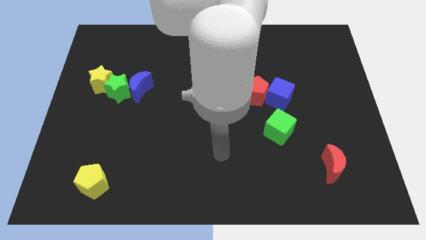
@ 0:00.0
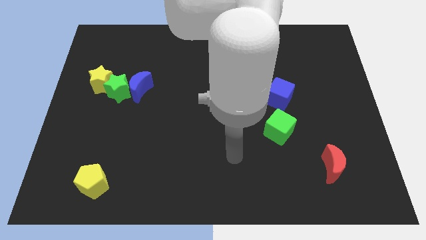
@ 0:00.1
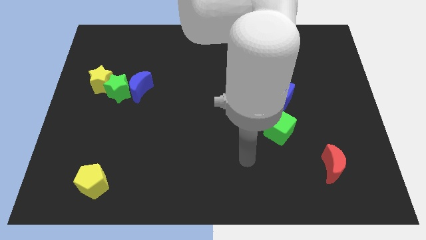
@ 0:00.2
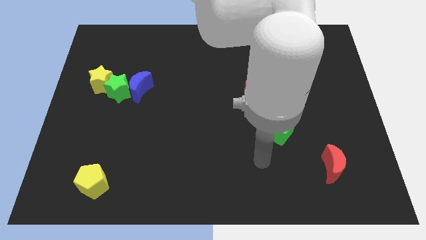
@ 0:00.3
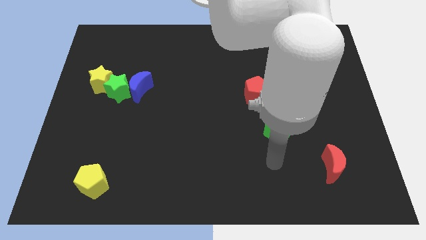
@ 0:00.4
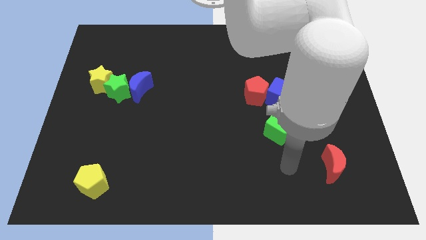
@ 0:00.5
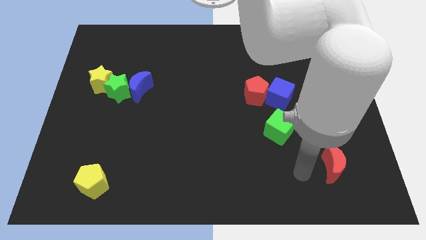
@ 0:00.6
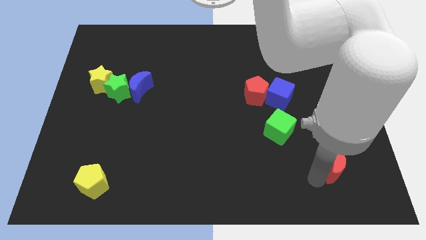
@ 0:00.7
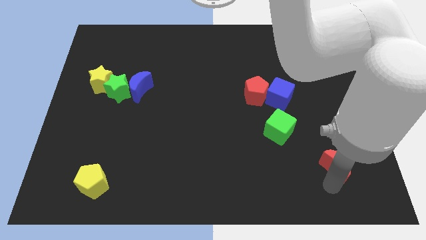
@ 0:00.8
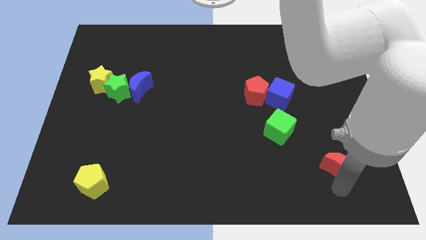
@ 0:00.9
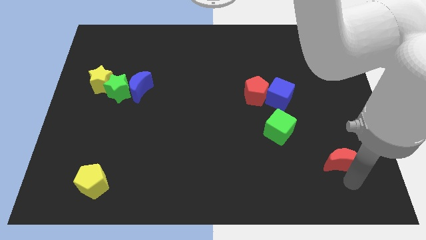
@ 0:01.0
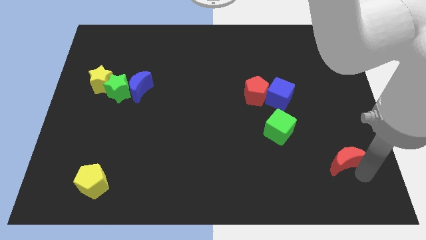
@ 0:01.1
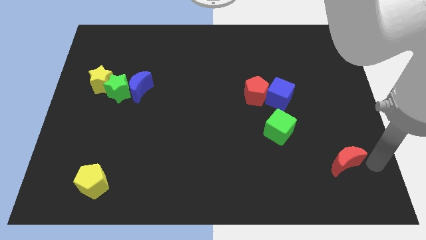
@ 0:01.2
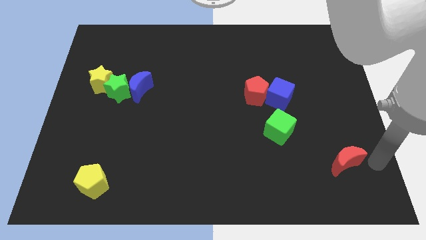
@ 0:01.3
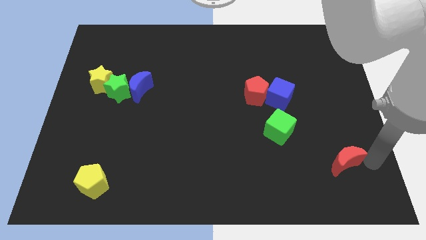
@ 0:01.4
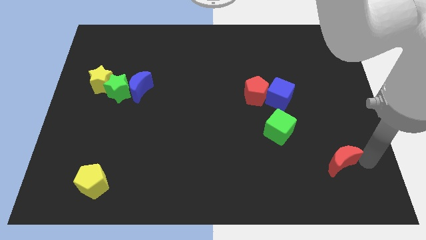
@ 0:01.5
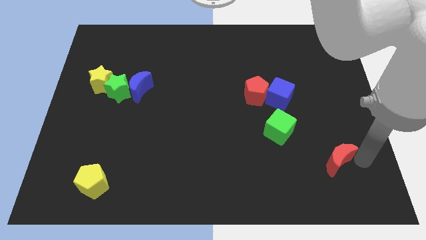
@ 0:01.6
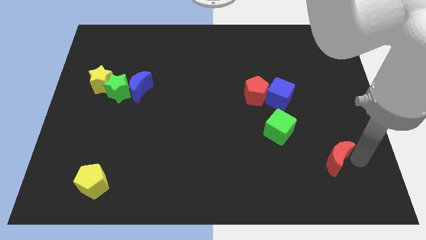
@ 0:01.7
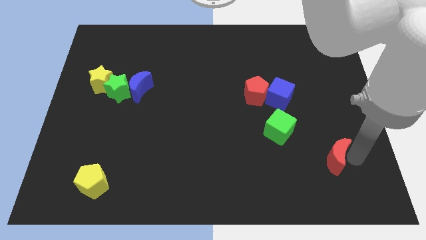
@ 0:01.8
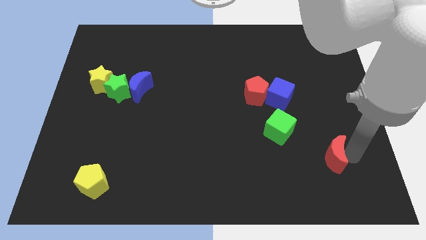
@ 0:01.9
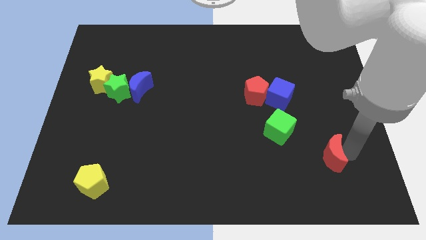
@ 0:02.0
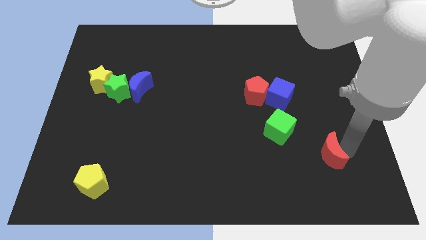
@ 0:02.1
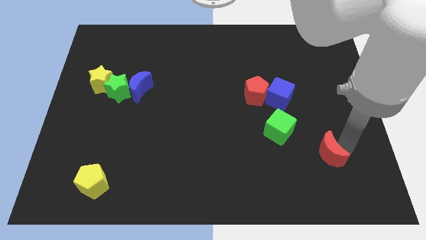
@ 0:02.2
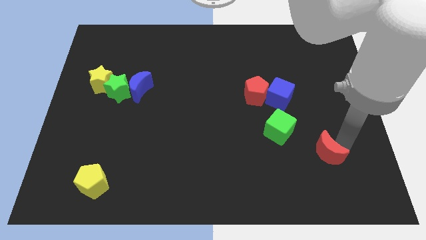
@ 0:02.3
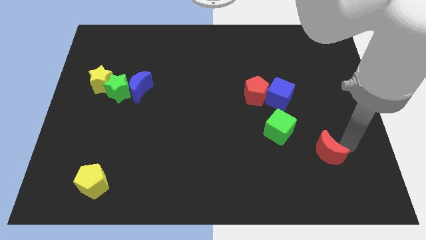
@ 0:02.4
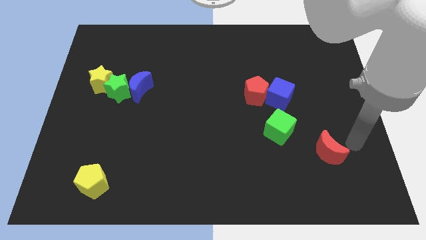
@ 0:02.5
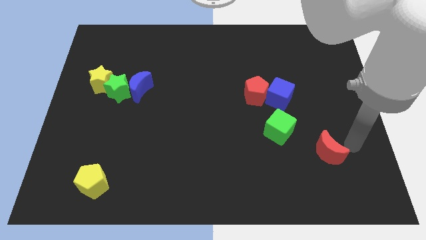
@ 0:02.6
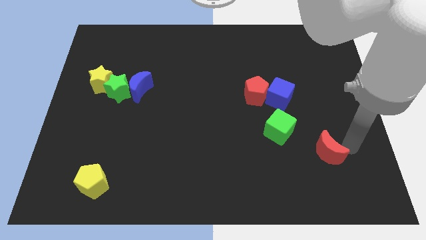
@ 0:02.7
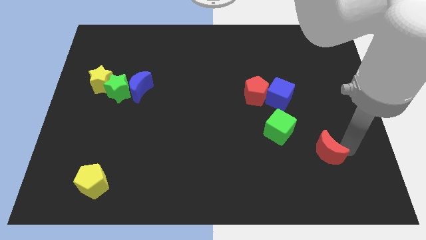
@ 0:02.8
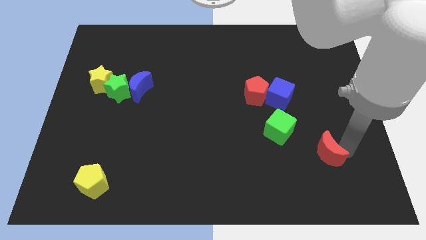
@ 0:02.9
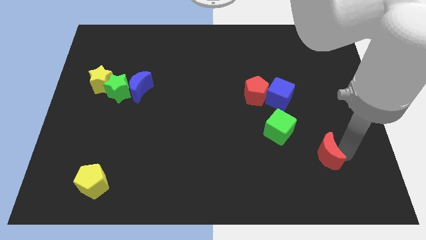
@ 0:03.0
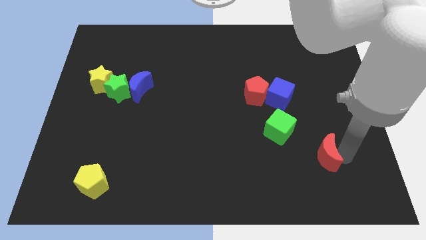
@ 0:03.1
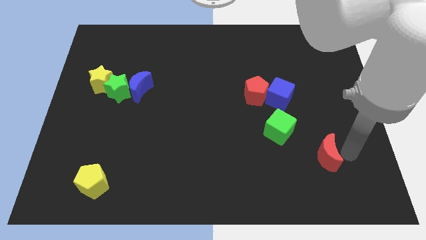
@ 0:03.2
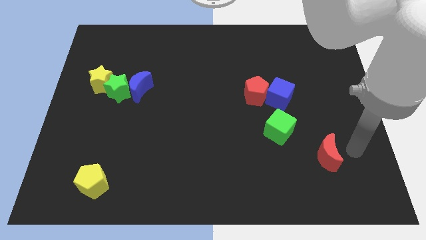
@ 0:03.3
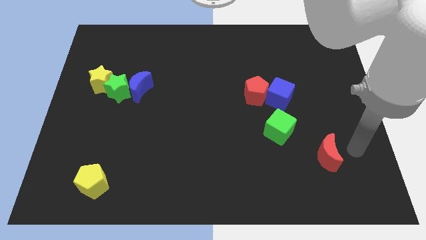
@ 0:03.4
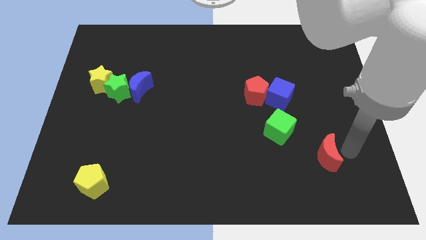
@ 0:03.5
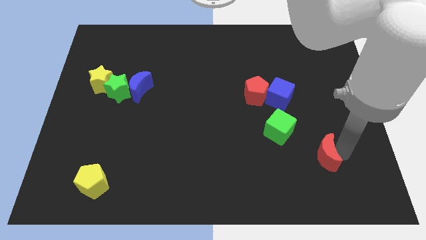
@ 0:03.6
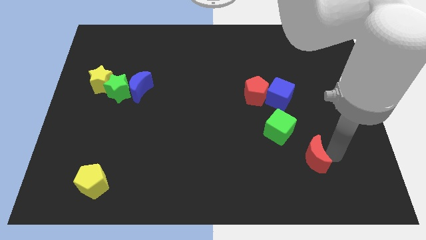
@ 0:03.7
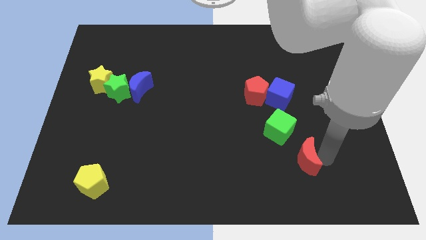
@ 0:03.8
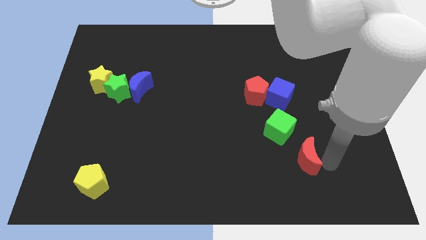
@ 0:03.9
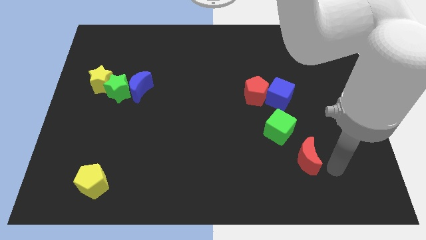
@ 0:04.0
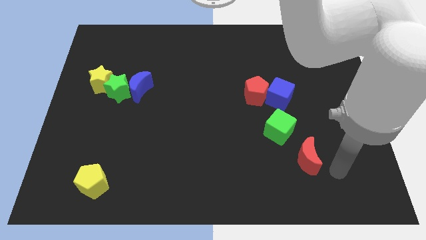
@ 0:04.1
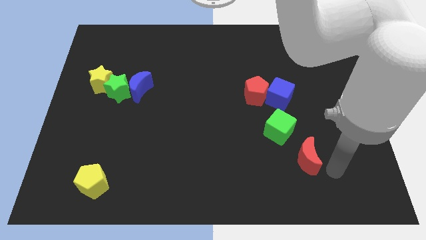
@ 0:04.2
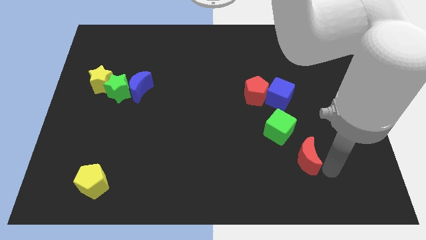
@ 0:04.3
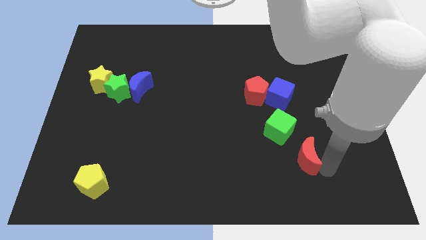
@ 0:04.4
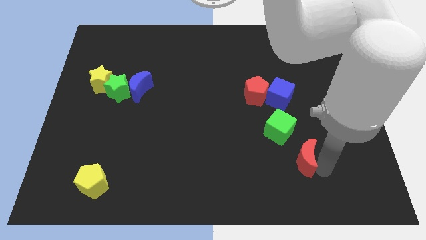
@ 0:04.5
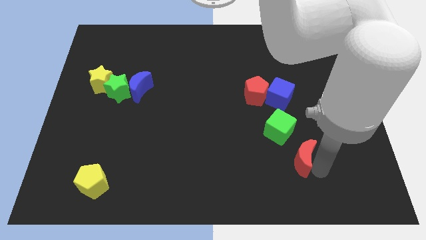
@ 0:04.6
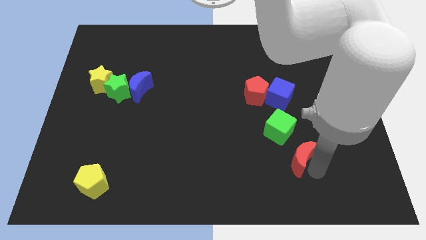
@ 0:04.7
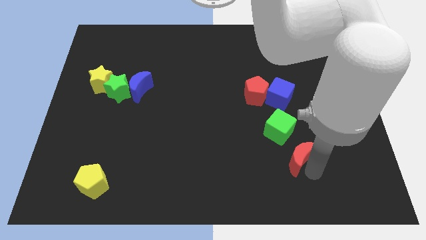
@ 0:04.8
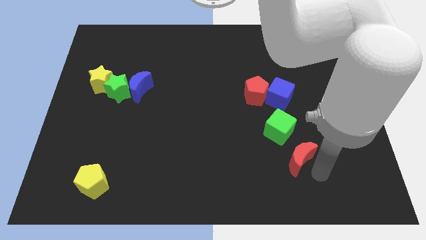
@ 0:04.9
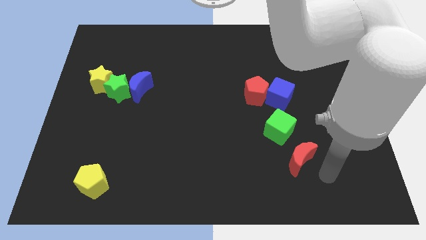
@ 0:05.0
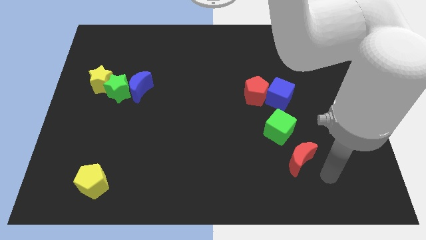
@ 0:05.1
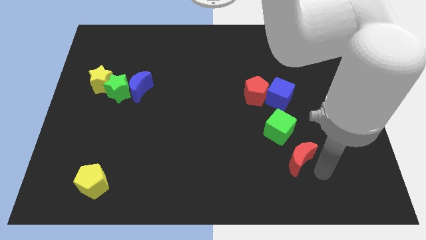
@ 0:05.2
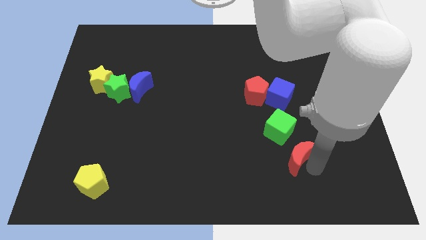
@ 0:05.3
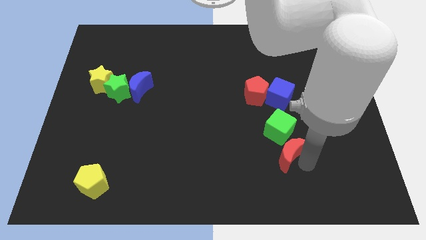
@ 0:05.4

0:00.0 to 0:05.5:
slightly slide the red moon upwards and then left

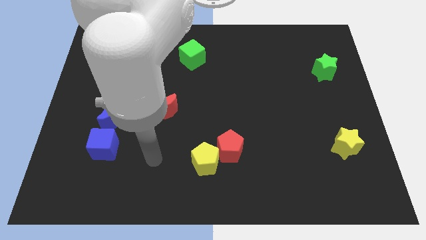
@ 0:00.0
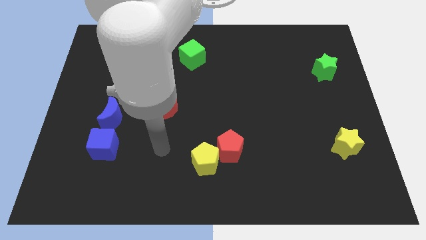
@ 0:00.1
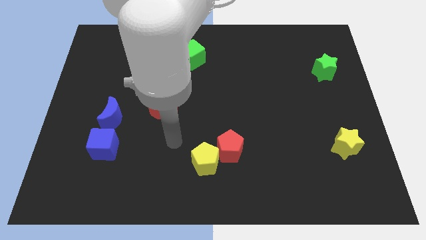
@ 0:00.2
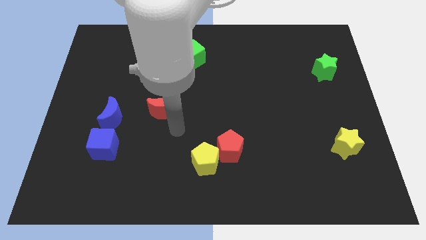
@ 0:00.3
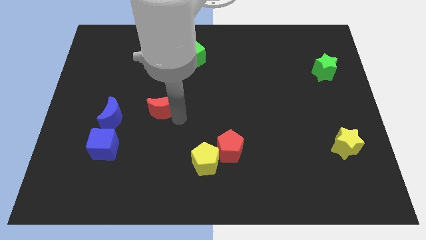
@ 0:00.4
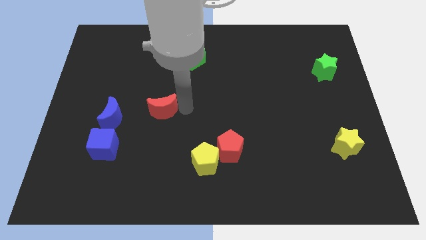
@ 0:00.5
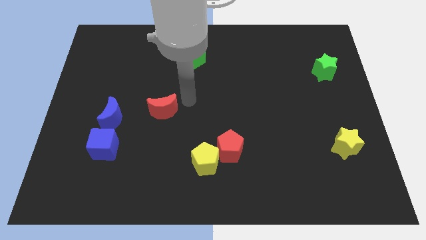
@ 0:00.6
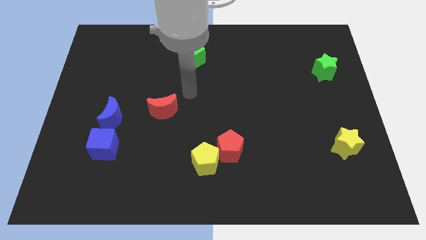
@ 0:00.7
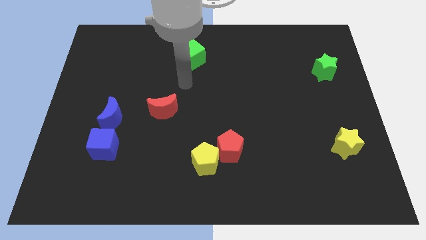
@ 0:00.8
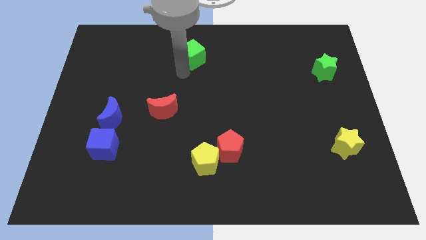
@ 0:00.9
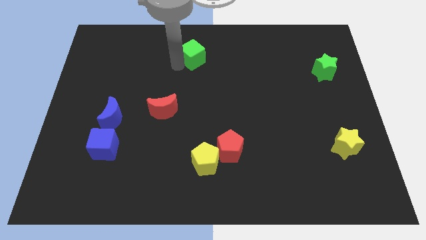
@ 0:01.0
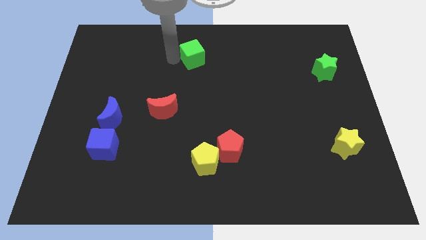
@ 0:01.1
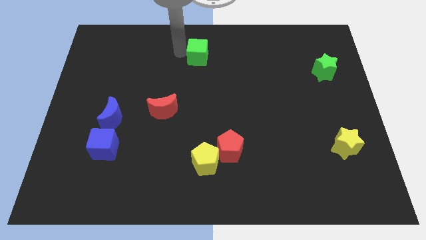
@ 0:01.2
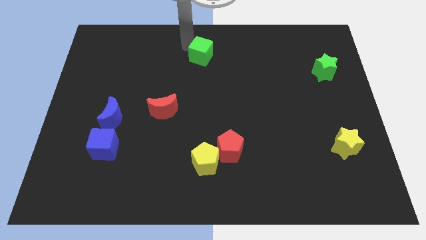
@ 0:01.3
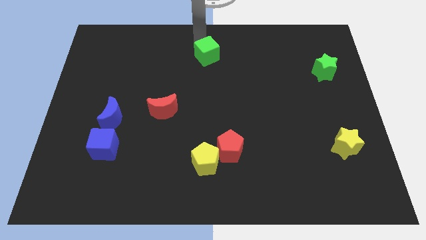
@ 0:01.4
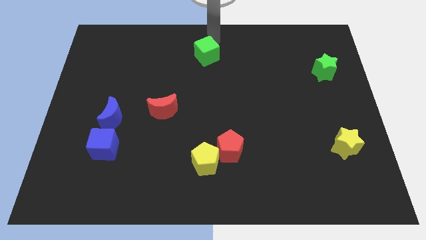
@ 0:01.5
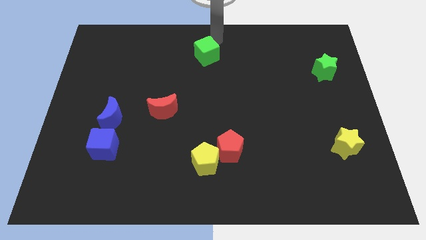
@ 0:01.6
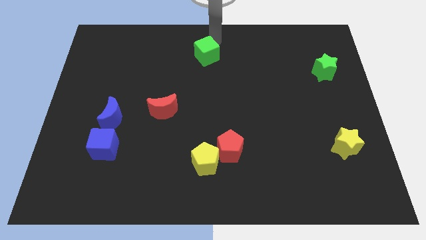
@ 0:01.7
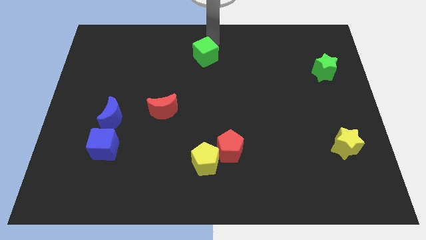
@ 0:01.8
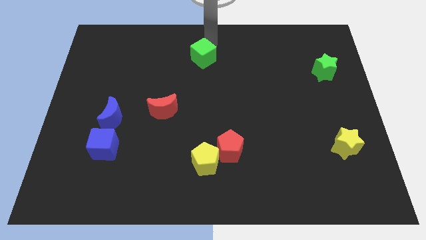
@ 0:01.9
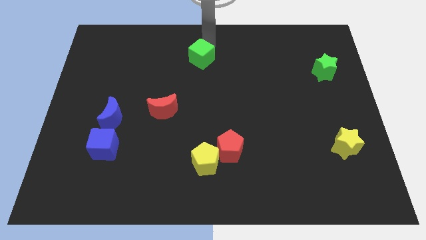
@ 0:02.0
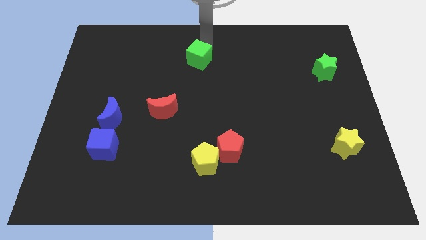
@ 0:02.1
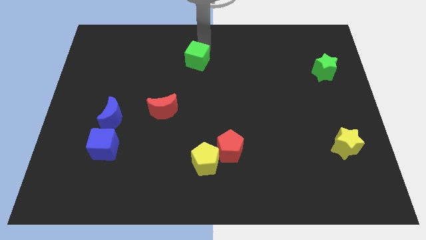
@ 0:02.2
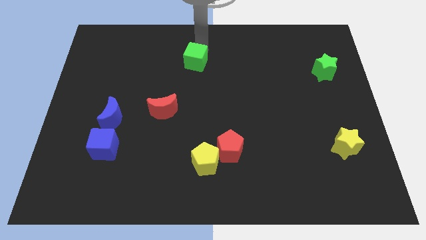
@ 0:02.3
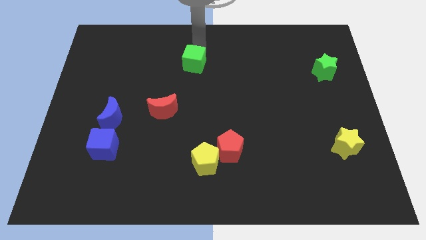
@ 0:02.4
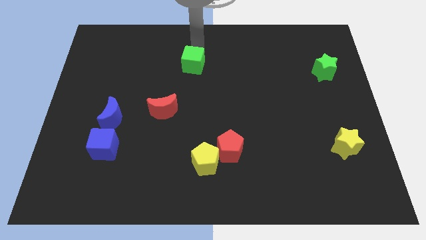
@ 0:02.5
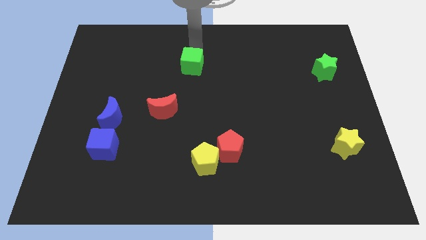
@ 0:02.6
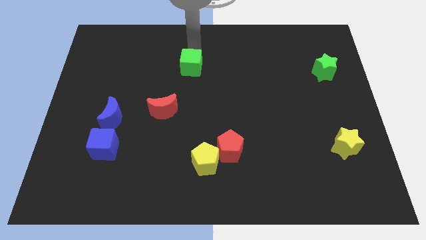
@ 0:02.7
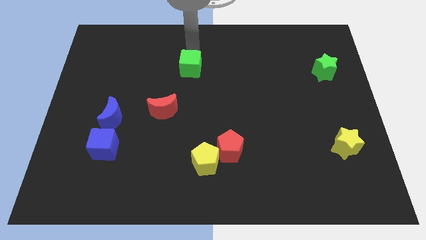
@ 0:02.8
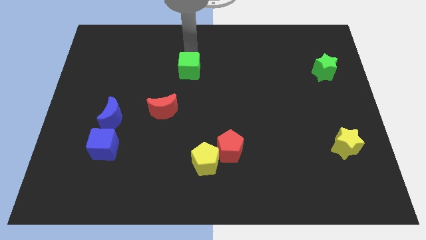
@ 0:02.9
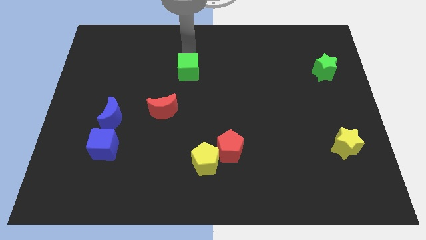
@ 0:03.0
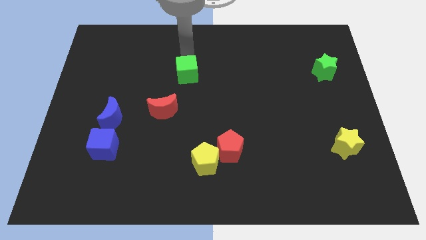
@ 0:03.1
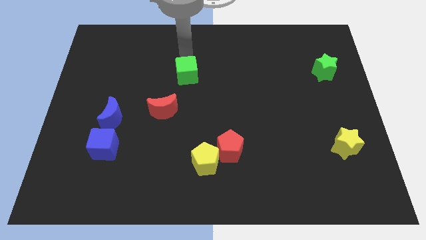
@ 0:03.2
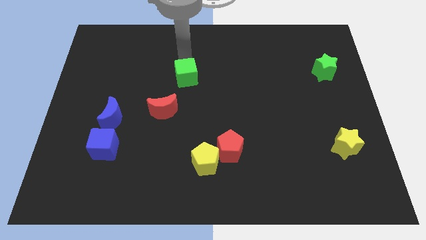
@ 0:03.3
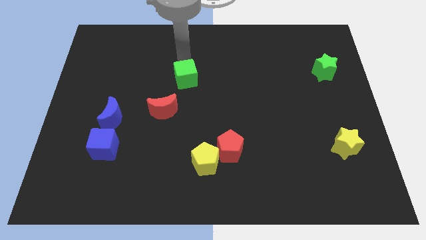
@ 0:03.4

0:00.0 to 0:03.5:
slide the green cube slightly down
